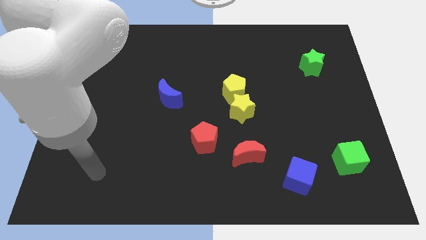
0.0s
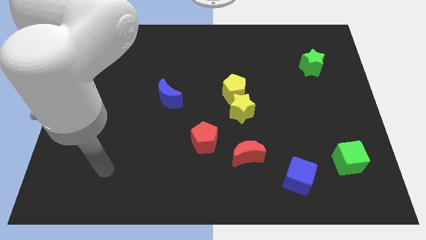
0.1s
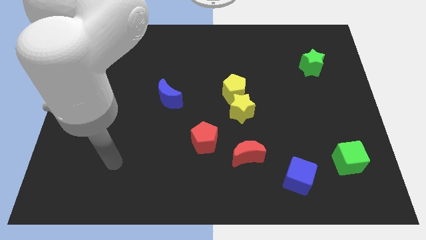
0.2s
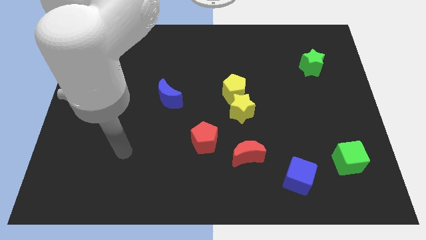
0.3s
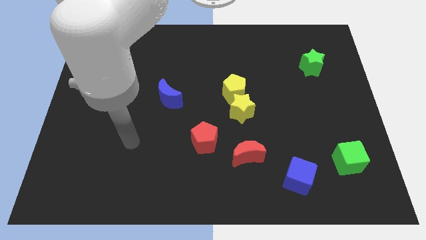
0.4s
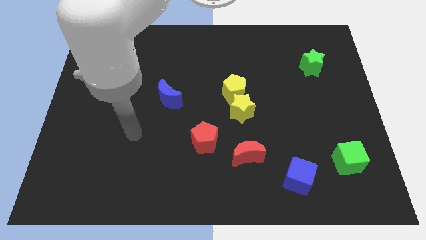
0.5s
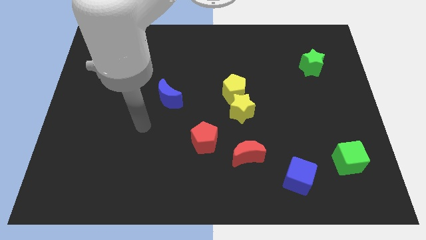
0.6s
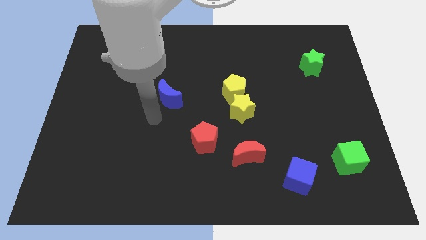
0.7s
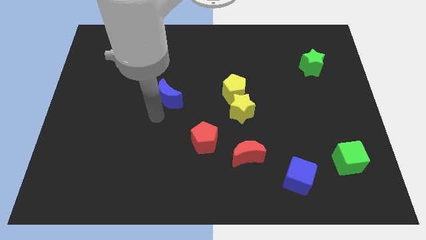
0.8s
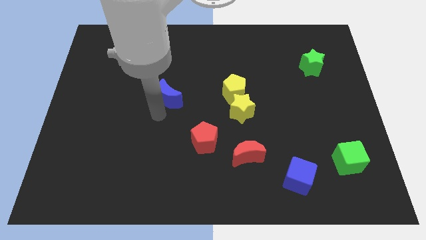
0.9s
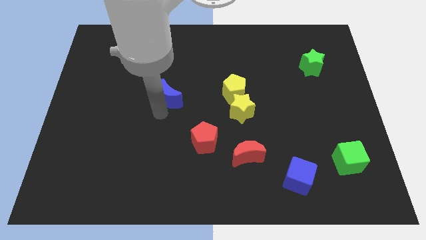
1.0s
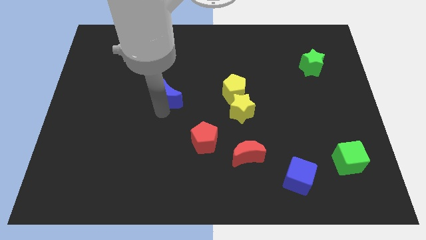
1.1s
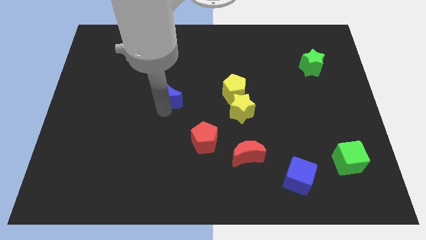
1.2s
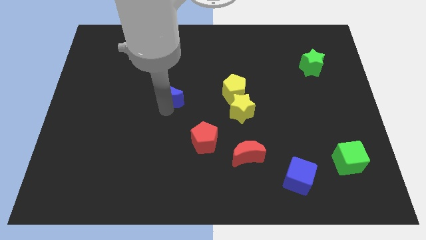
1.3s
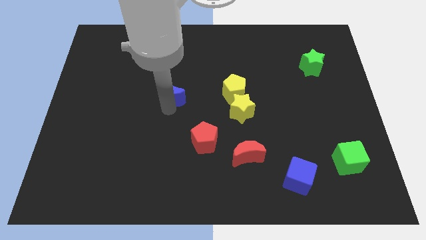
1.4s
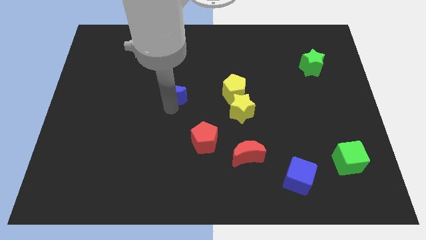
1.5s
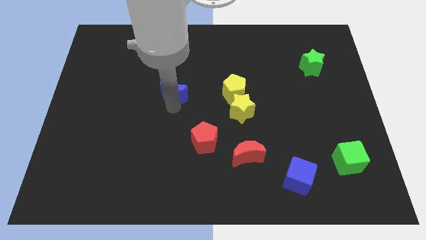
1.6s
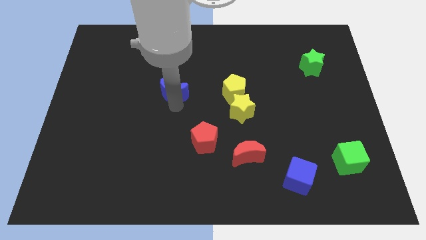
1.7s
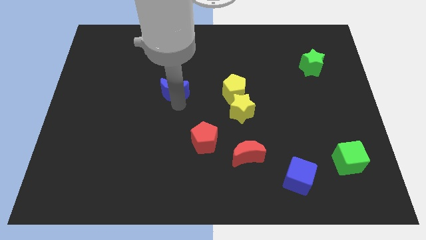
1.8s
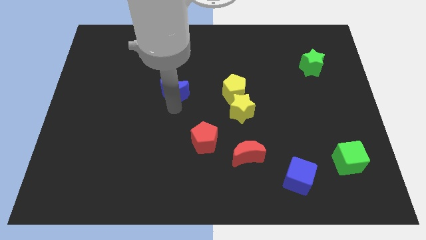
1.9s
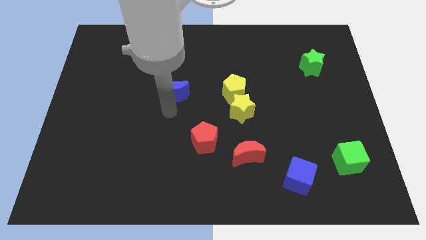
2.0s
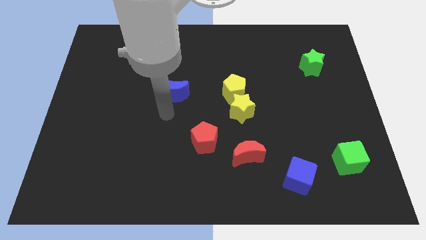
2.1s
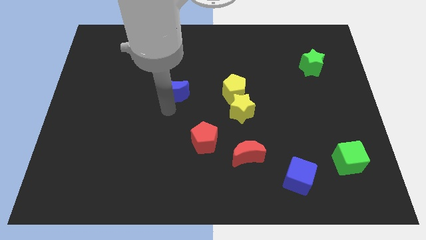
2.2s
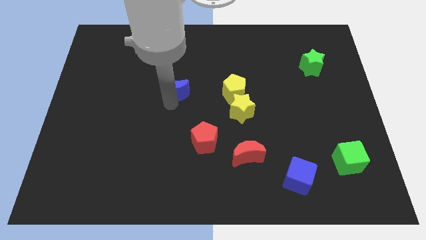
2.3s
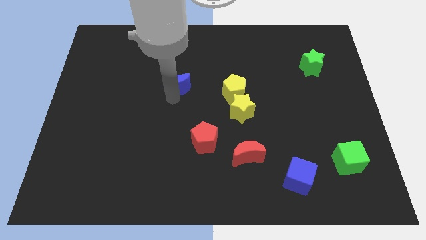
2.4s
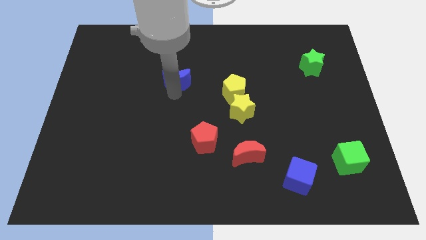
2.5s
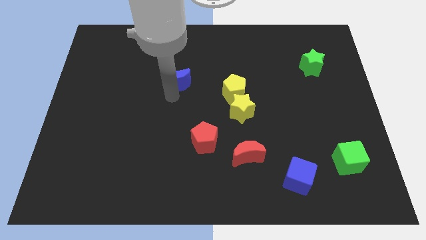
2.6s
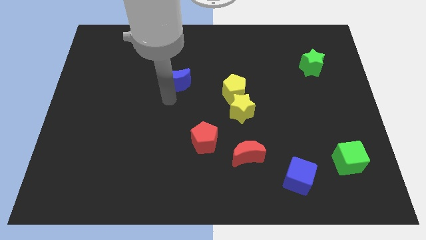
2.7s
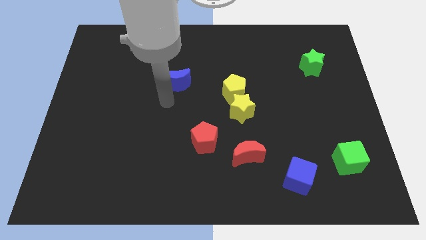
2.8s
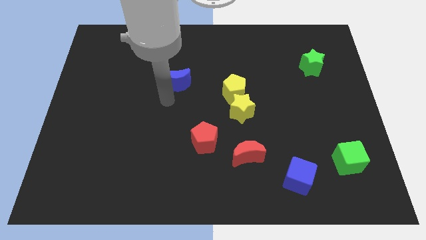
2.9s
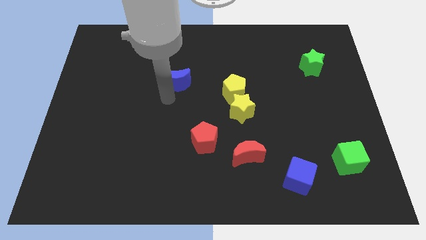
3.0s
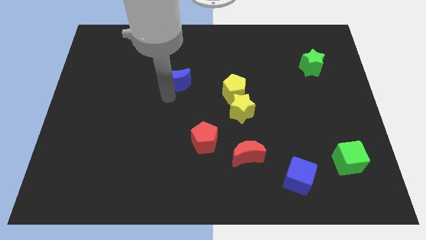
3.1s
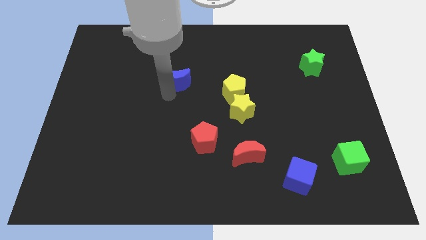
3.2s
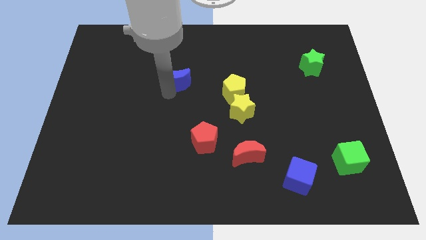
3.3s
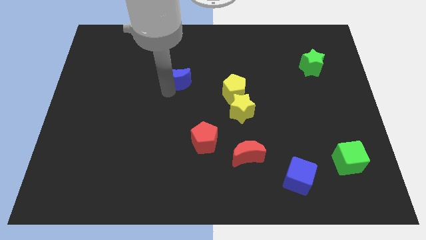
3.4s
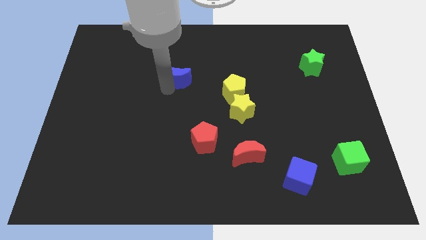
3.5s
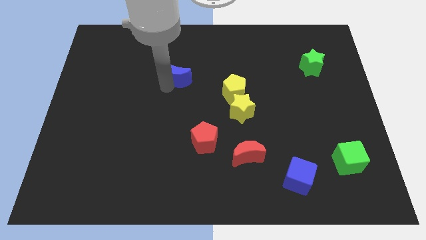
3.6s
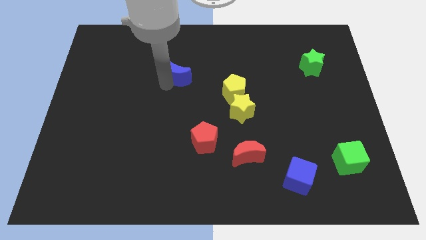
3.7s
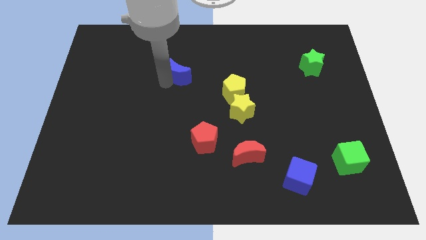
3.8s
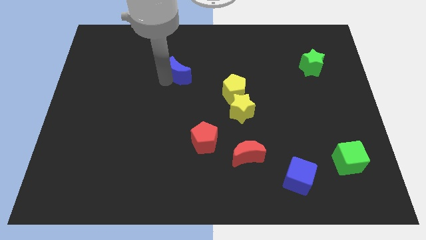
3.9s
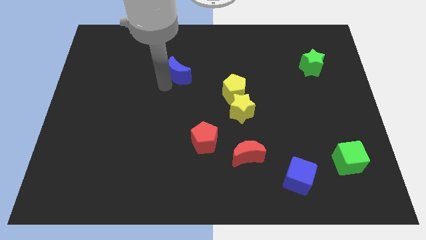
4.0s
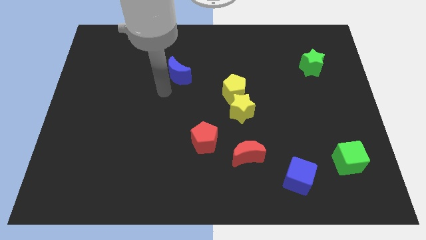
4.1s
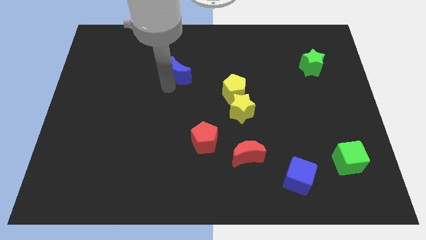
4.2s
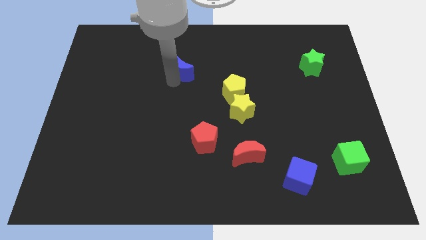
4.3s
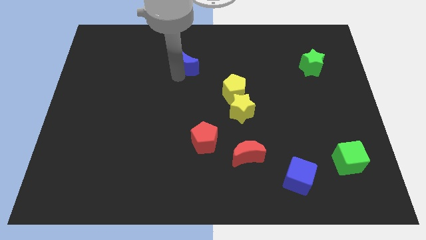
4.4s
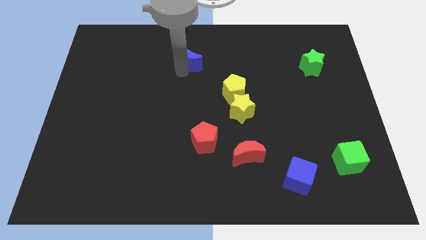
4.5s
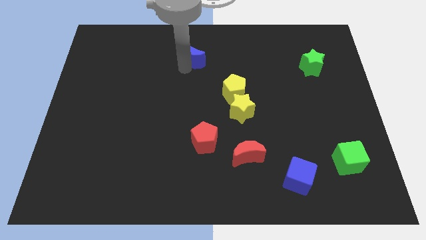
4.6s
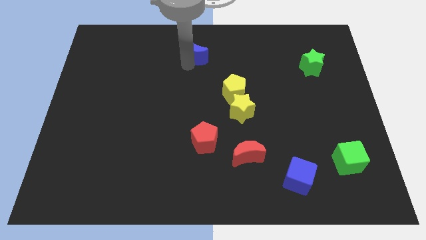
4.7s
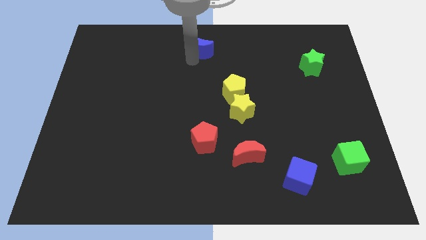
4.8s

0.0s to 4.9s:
push the blue moon to the top

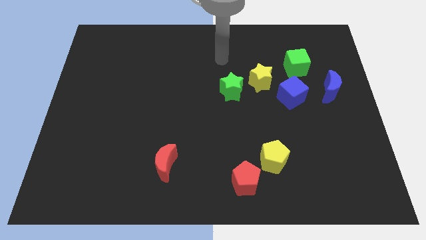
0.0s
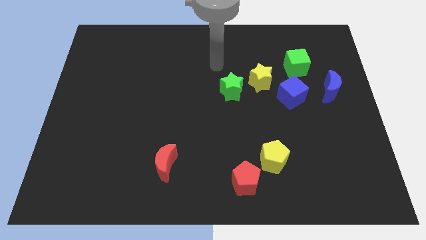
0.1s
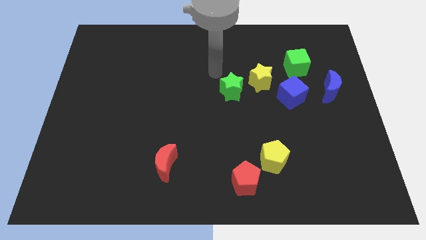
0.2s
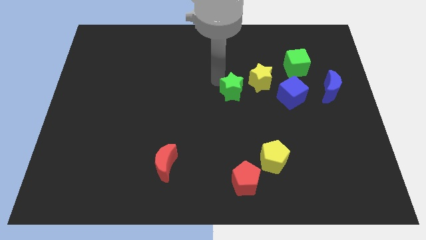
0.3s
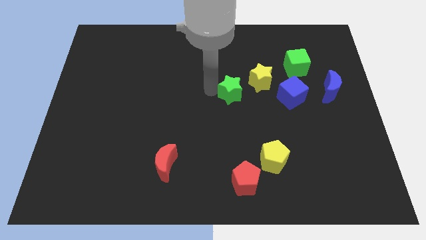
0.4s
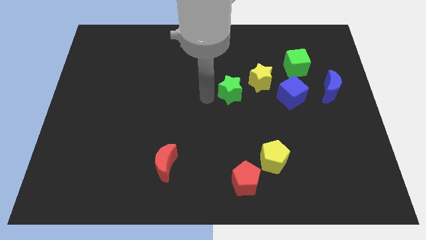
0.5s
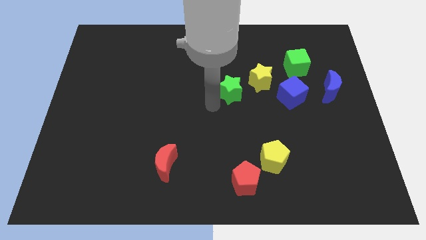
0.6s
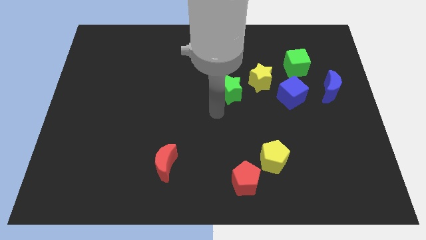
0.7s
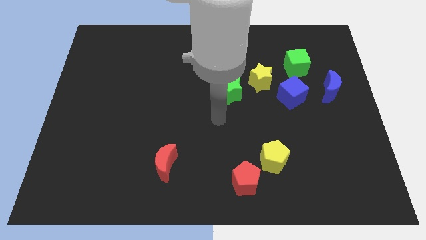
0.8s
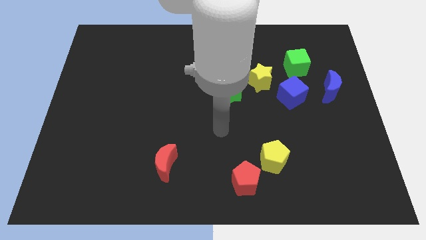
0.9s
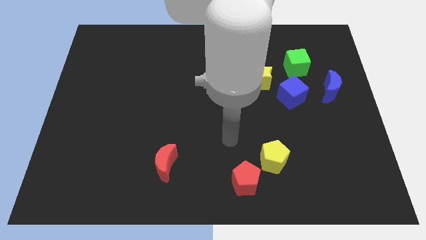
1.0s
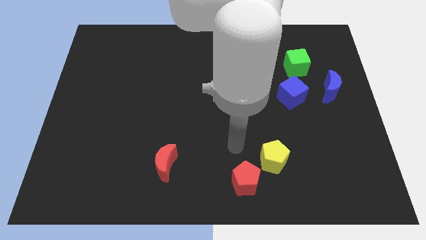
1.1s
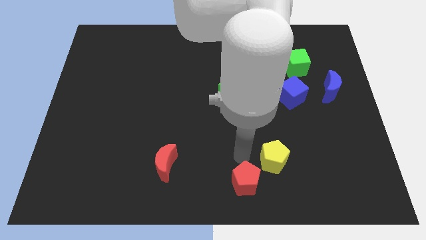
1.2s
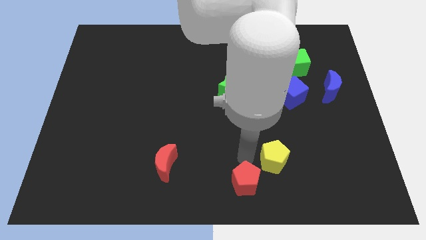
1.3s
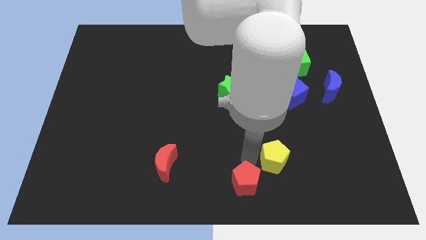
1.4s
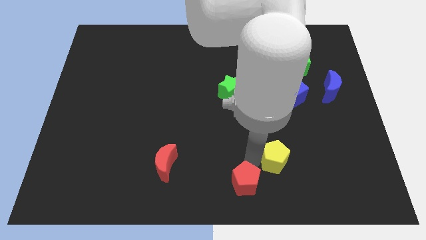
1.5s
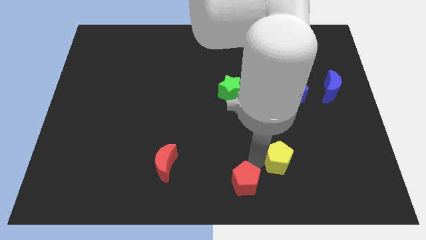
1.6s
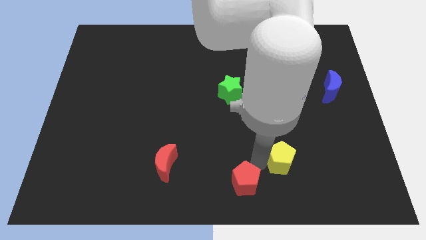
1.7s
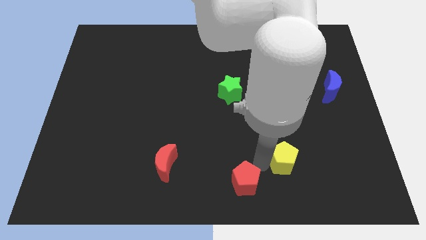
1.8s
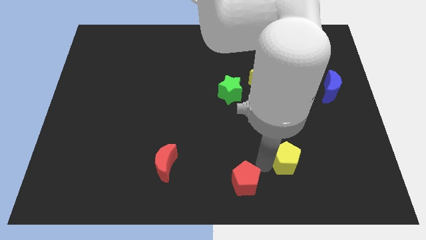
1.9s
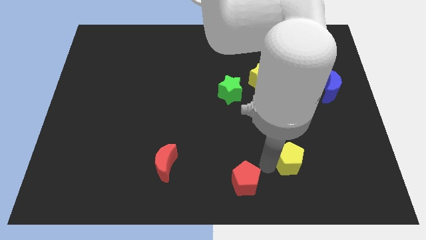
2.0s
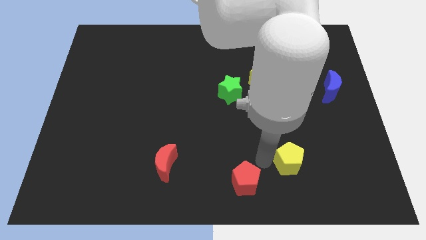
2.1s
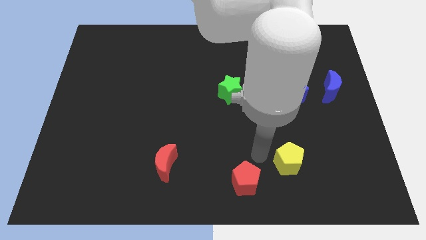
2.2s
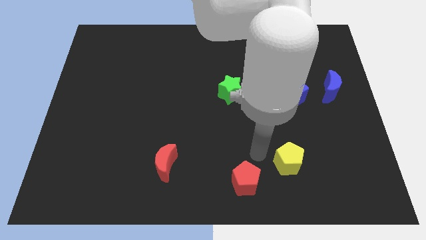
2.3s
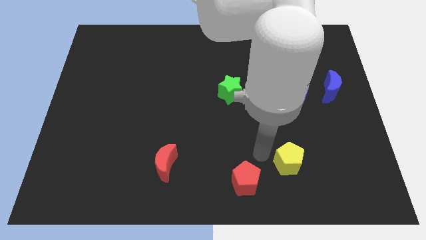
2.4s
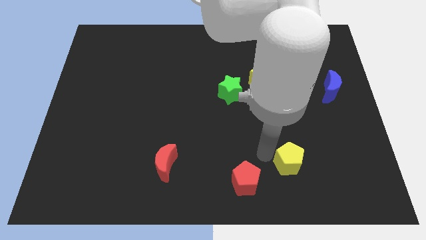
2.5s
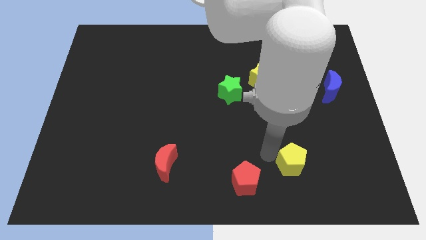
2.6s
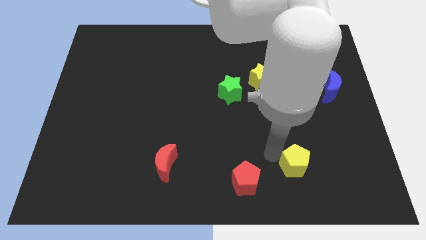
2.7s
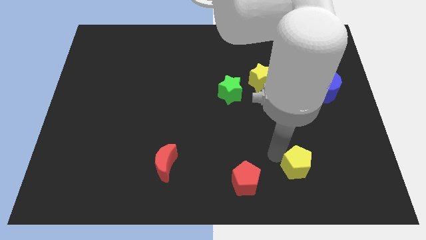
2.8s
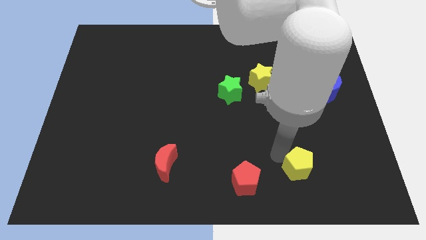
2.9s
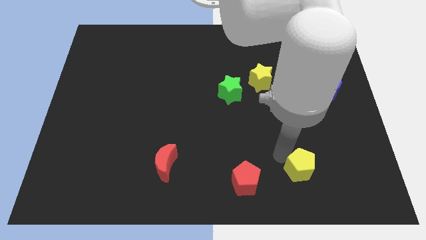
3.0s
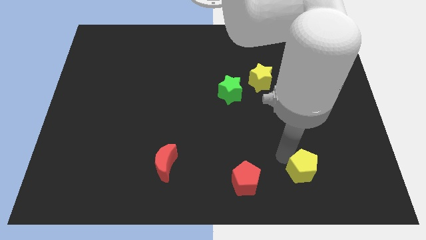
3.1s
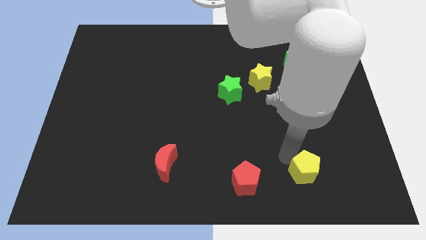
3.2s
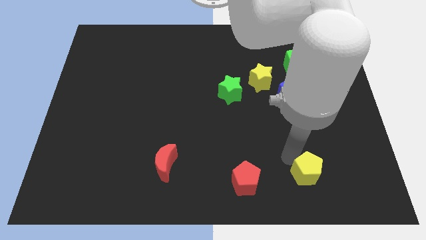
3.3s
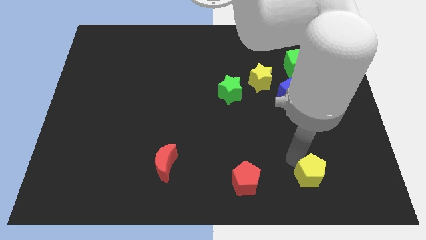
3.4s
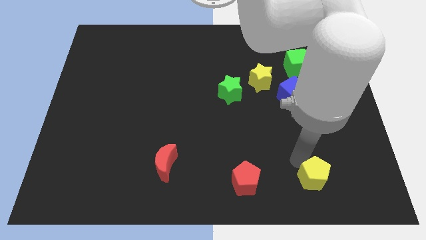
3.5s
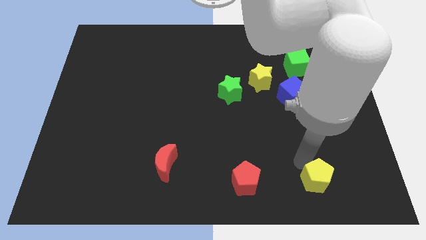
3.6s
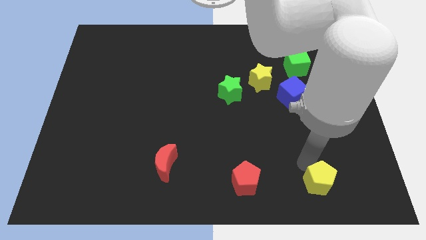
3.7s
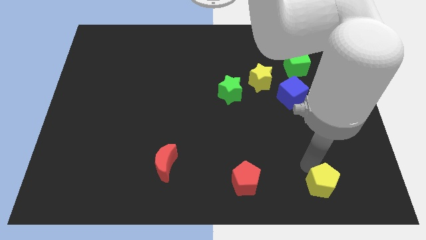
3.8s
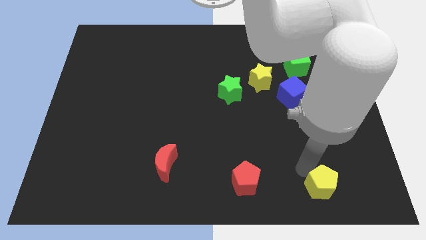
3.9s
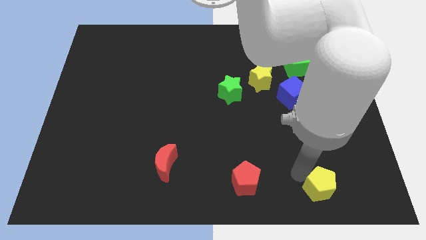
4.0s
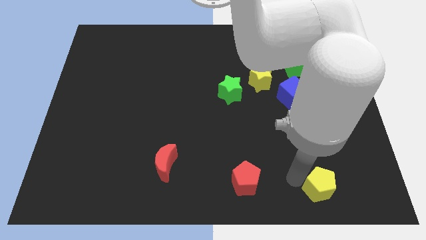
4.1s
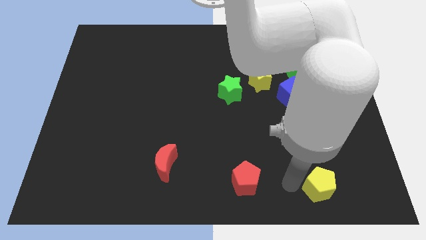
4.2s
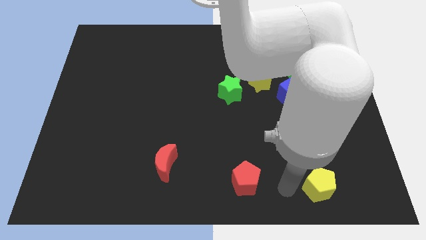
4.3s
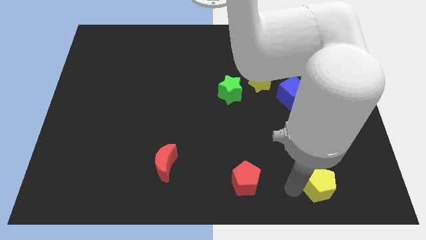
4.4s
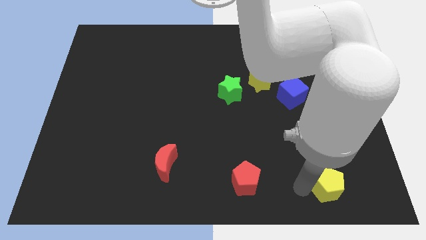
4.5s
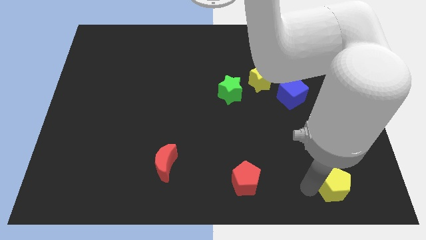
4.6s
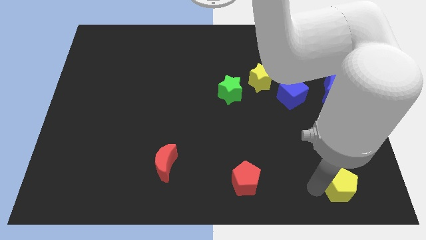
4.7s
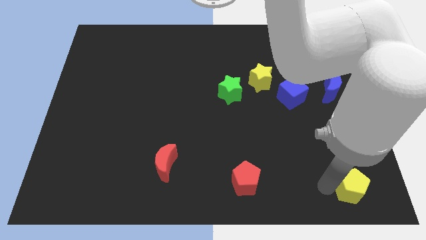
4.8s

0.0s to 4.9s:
put the yellow pentagon to the lower right corner
